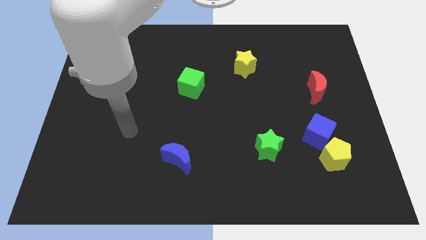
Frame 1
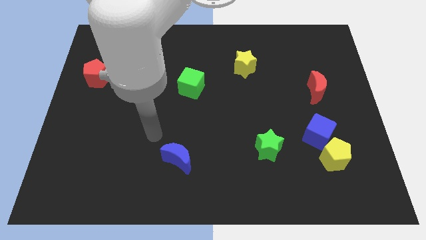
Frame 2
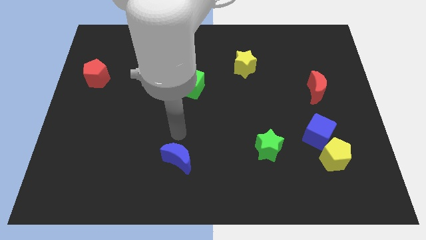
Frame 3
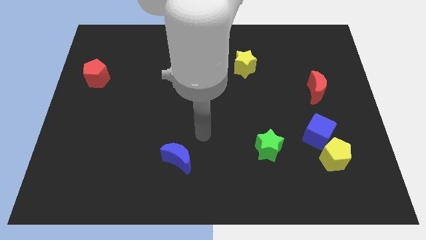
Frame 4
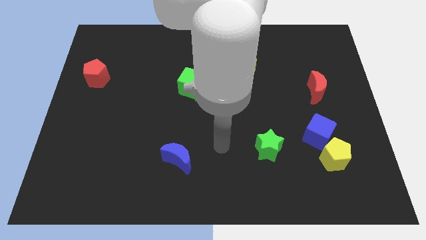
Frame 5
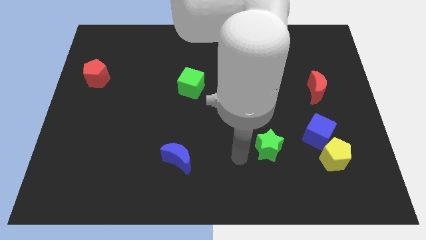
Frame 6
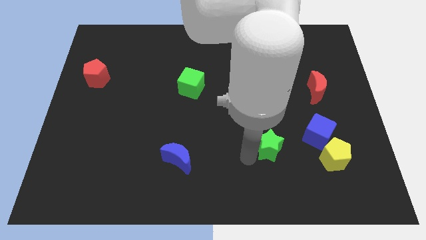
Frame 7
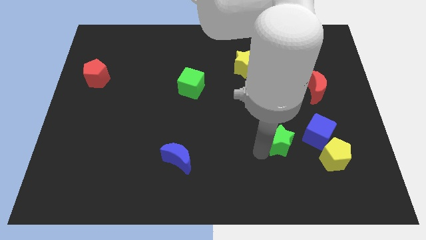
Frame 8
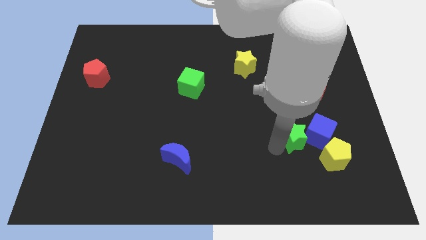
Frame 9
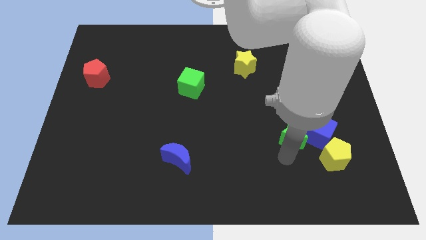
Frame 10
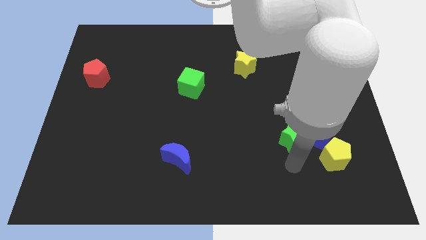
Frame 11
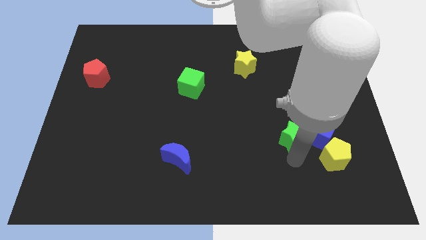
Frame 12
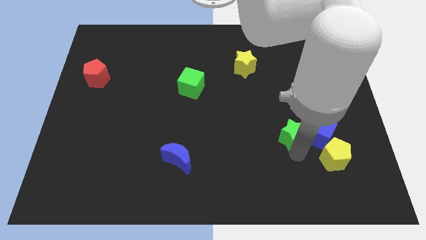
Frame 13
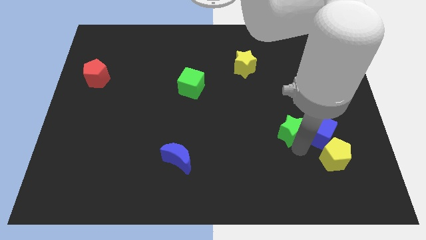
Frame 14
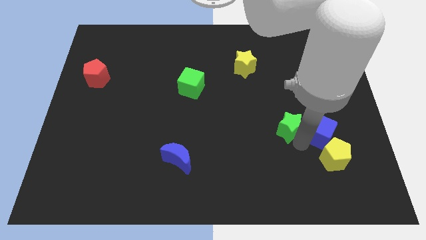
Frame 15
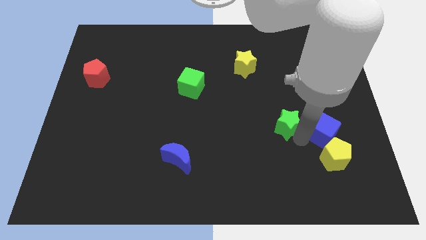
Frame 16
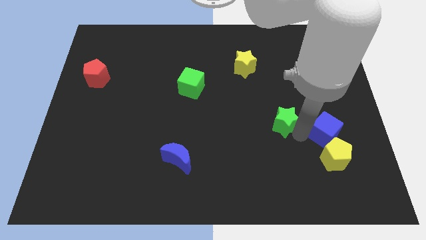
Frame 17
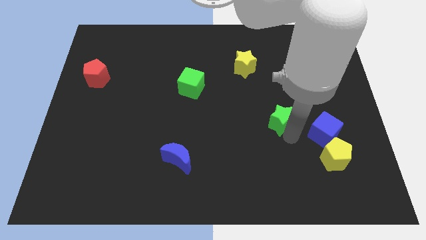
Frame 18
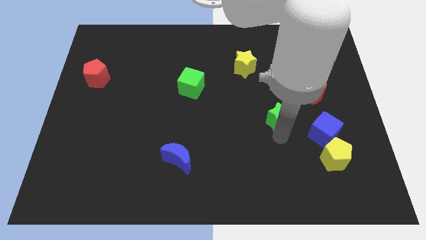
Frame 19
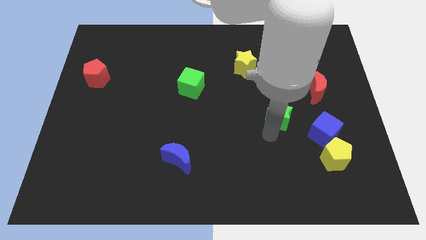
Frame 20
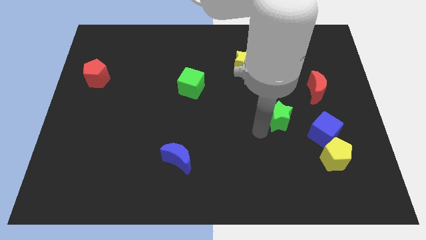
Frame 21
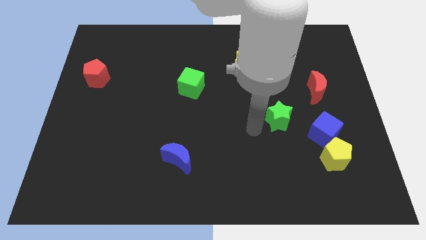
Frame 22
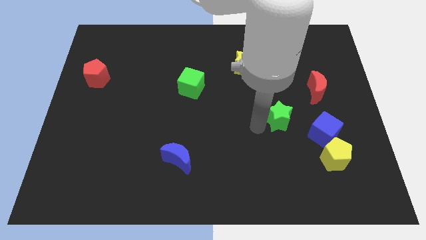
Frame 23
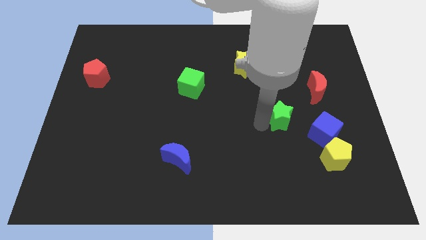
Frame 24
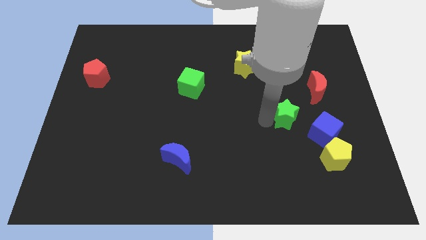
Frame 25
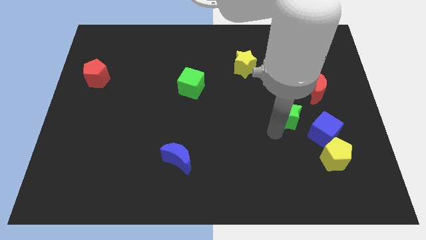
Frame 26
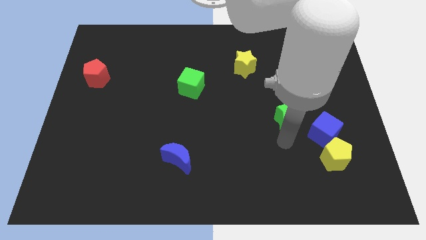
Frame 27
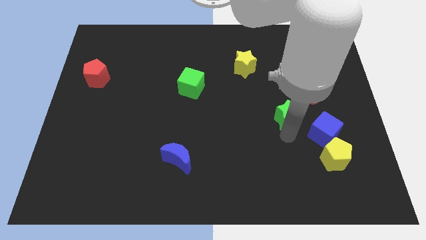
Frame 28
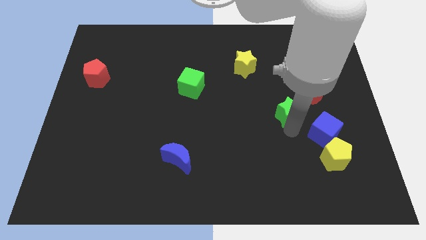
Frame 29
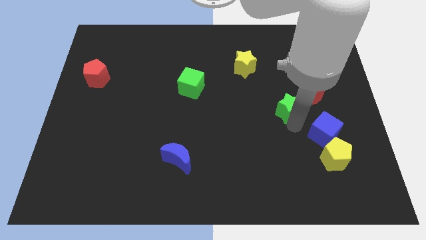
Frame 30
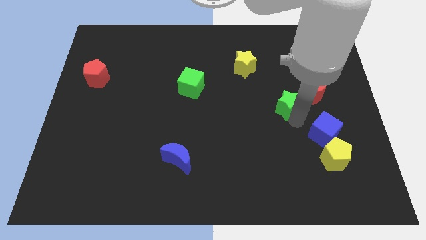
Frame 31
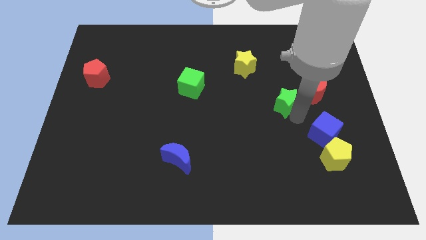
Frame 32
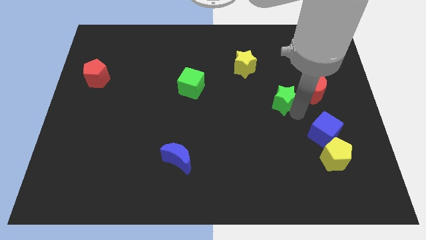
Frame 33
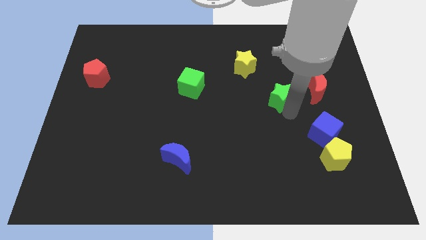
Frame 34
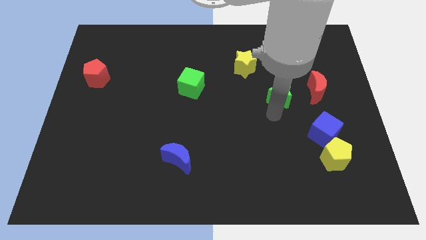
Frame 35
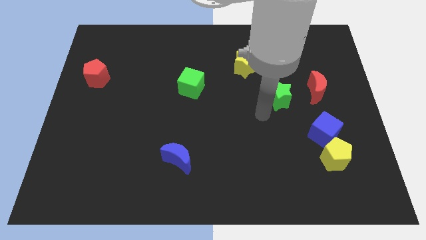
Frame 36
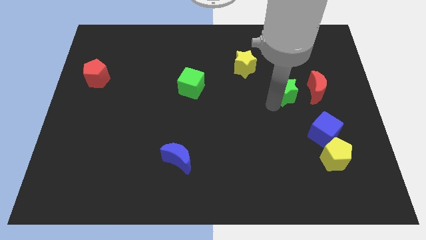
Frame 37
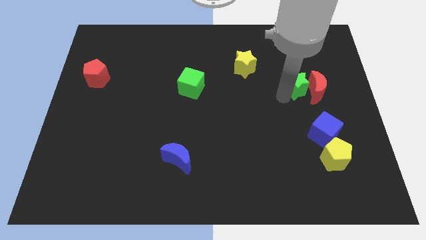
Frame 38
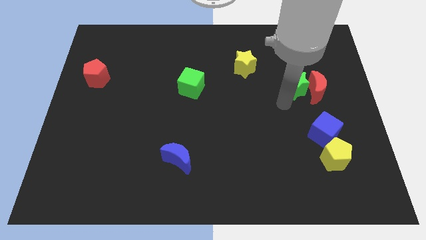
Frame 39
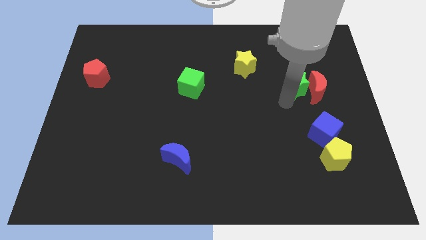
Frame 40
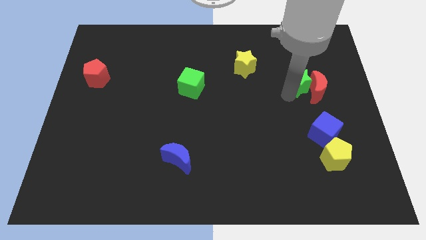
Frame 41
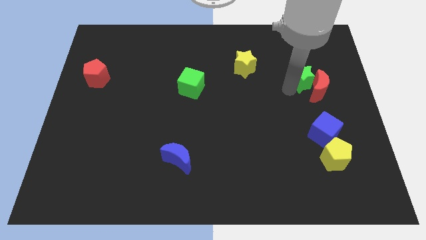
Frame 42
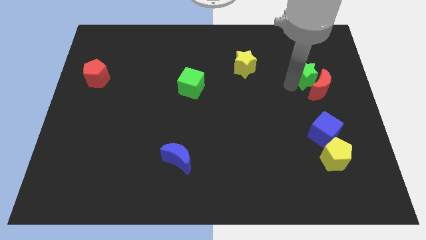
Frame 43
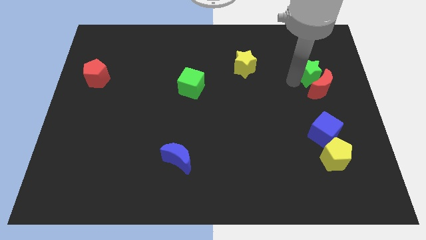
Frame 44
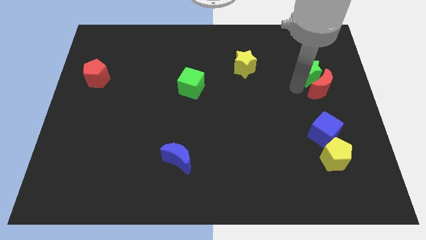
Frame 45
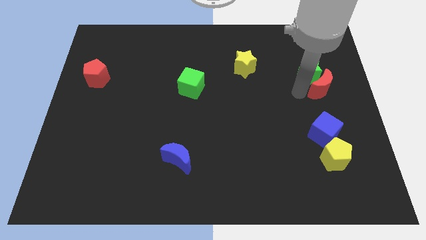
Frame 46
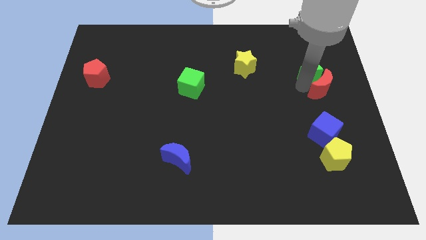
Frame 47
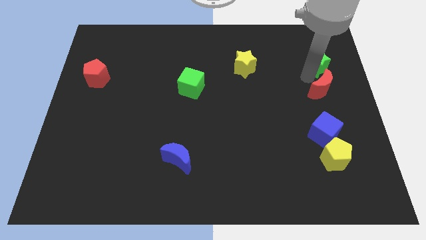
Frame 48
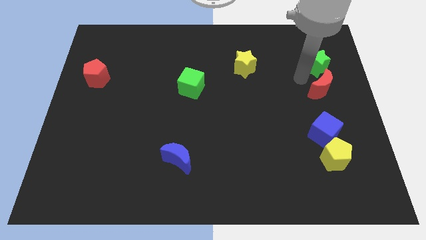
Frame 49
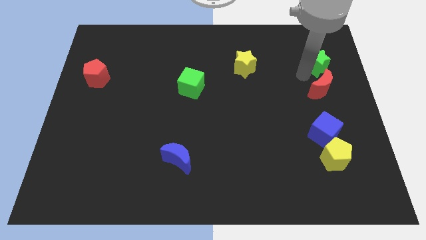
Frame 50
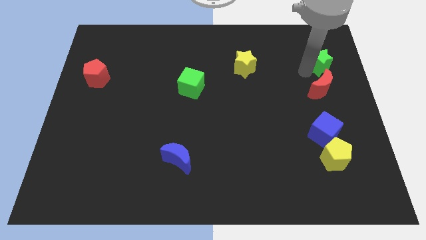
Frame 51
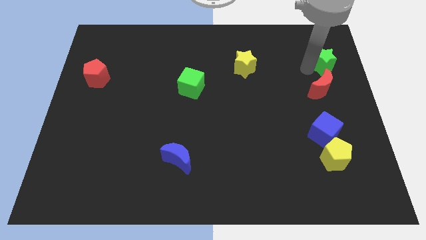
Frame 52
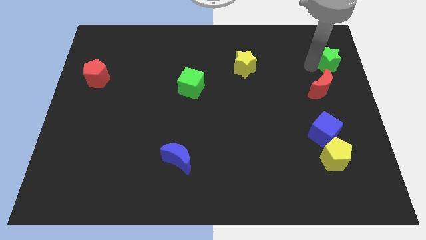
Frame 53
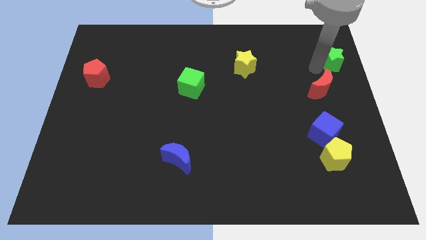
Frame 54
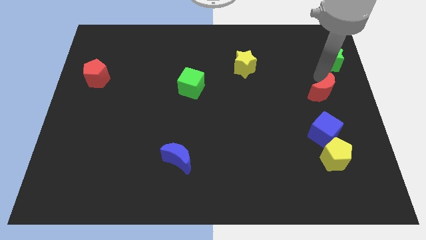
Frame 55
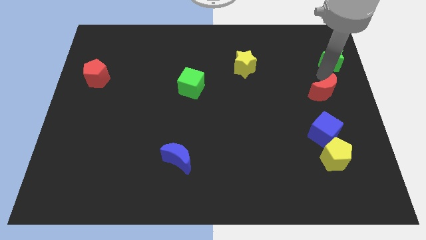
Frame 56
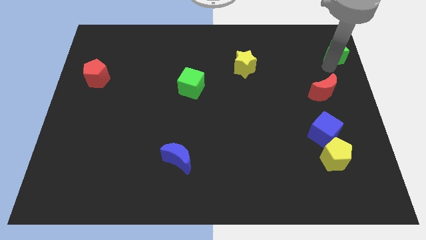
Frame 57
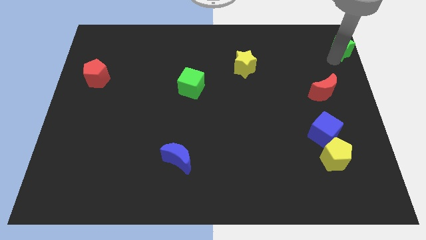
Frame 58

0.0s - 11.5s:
move the green star to the top right of the board

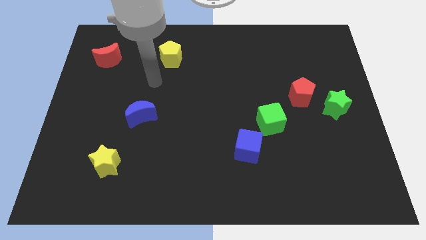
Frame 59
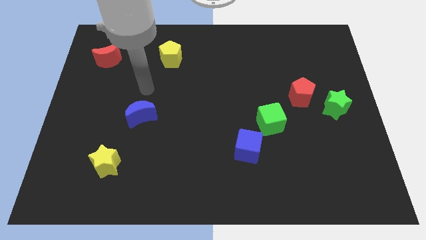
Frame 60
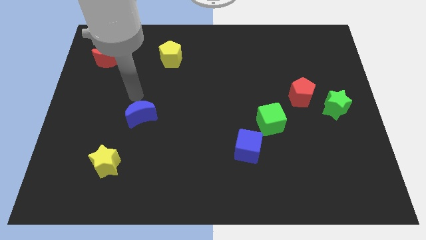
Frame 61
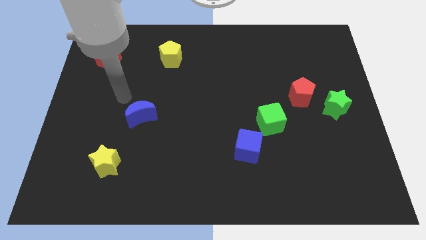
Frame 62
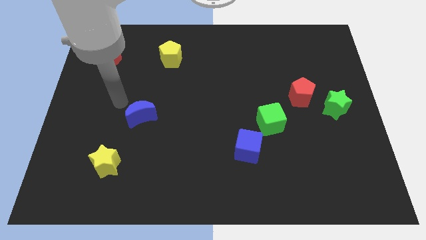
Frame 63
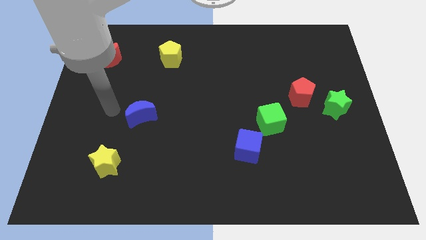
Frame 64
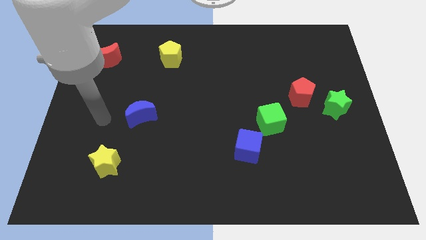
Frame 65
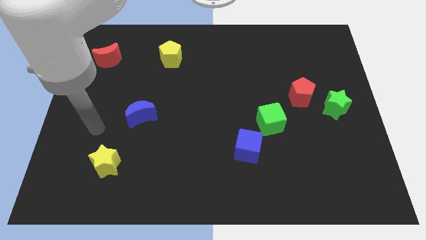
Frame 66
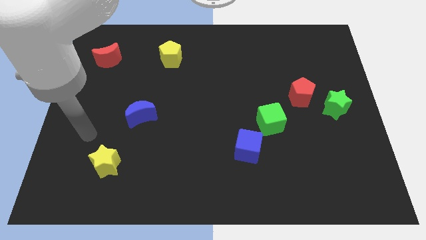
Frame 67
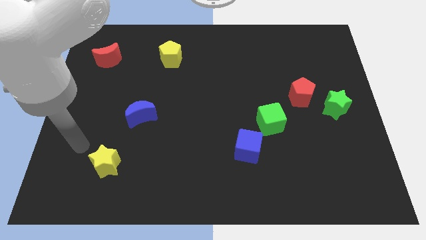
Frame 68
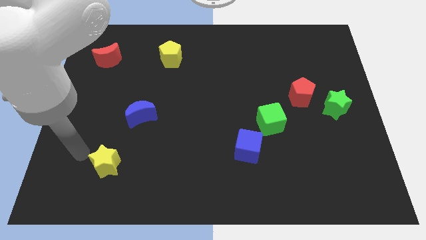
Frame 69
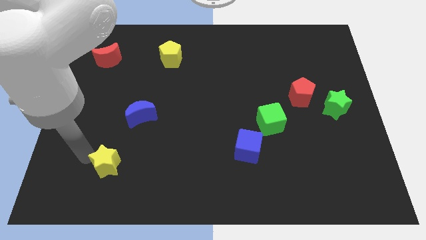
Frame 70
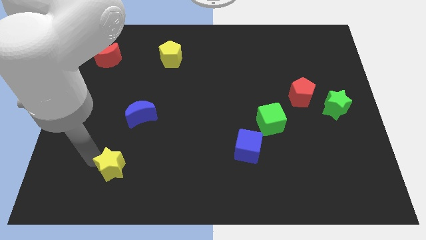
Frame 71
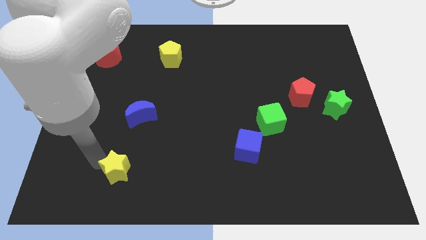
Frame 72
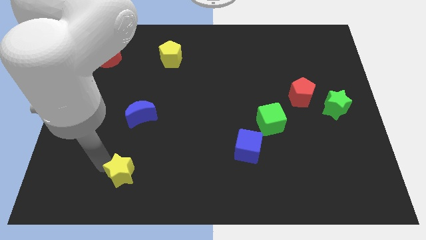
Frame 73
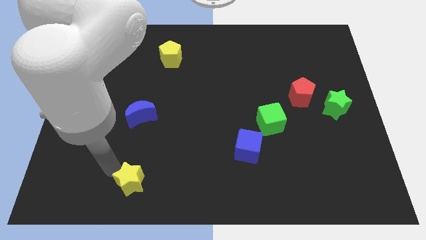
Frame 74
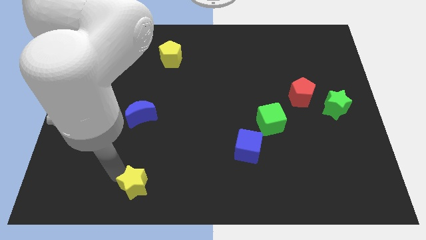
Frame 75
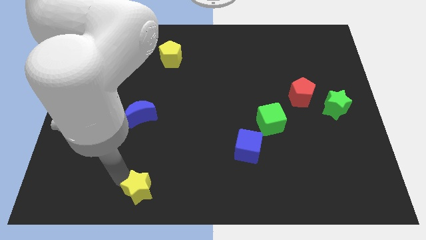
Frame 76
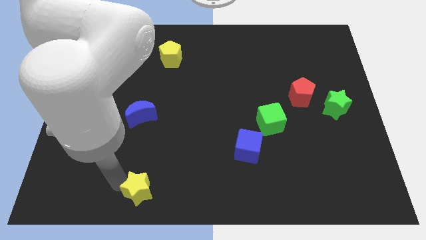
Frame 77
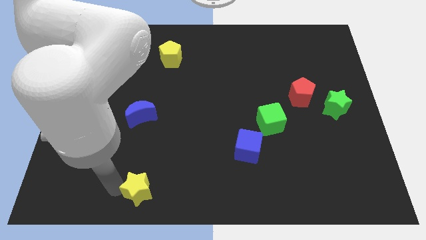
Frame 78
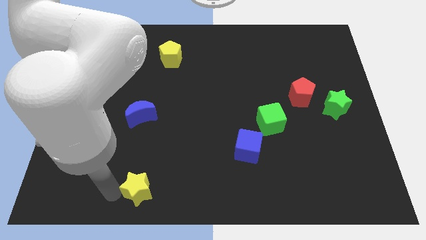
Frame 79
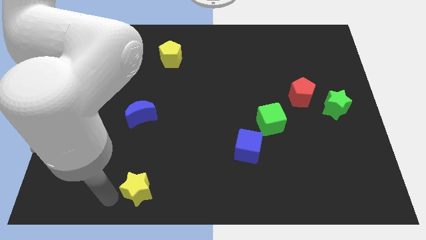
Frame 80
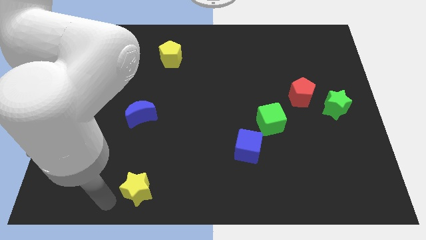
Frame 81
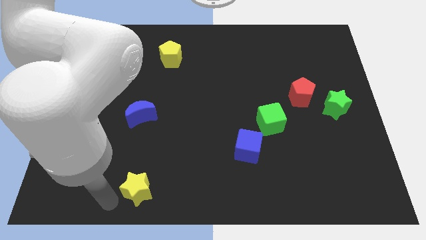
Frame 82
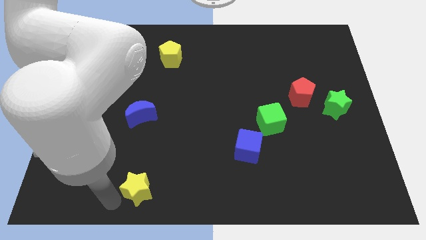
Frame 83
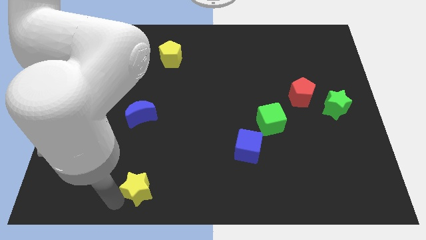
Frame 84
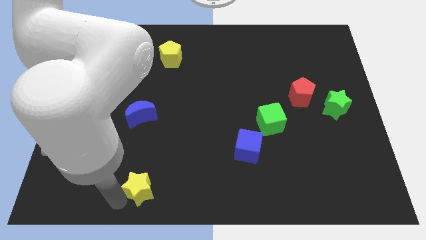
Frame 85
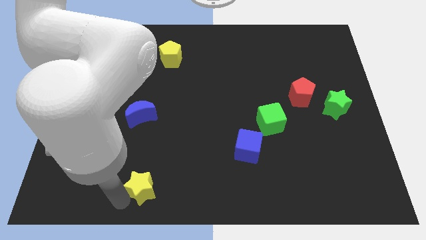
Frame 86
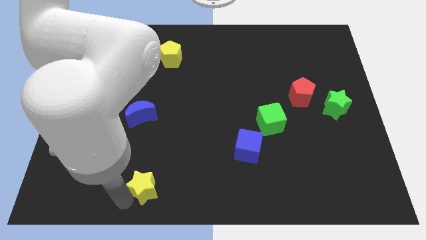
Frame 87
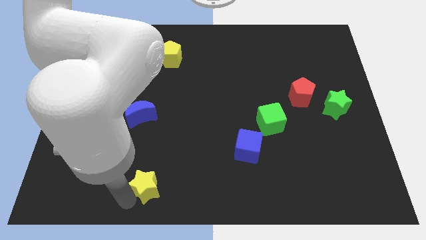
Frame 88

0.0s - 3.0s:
push the yellow star to the bottom side
